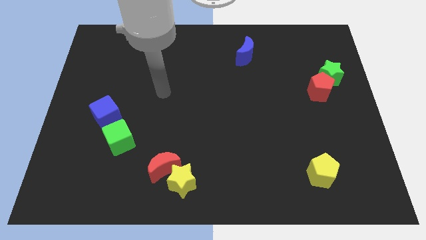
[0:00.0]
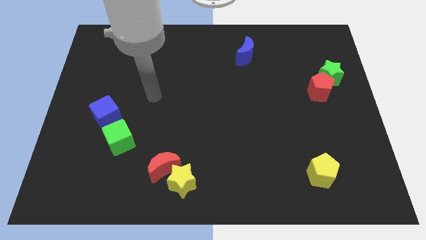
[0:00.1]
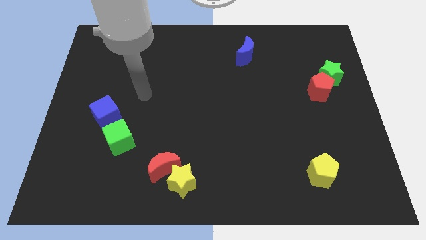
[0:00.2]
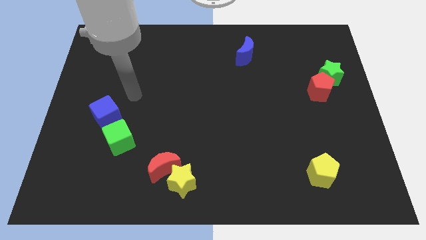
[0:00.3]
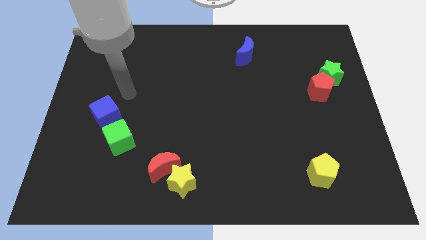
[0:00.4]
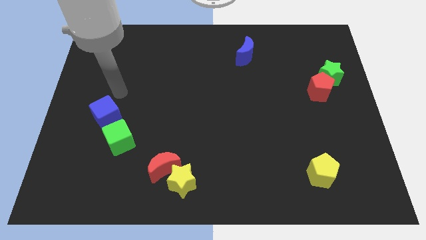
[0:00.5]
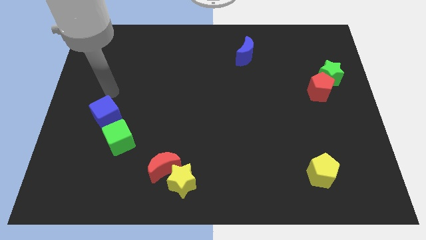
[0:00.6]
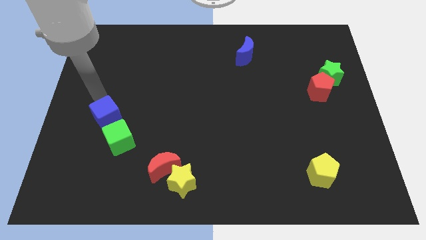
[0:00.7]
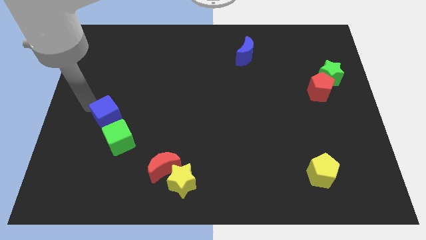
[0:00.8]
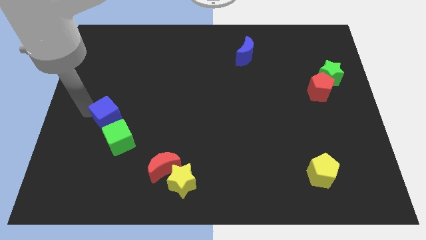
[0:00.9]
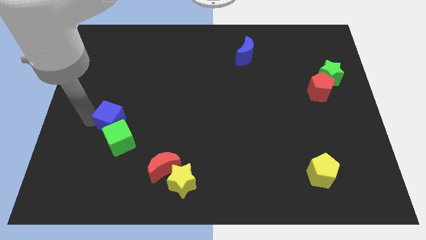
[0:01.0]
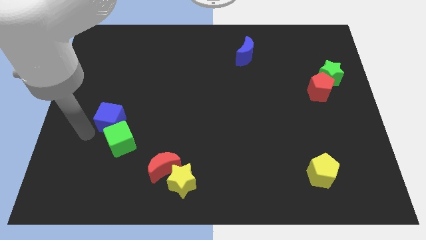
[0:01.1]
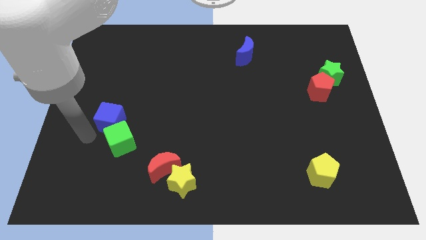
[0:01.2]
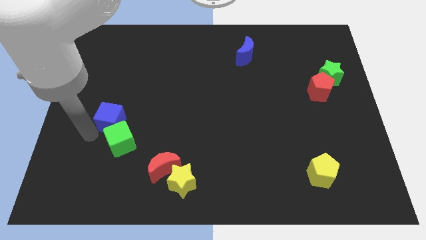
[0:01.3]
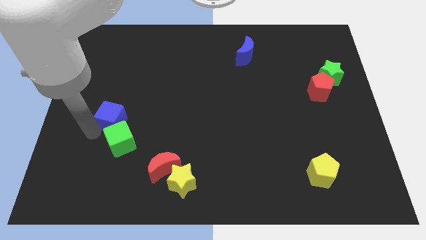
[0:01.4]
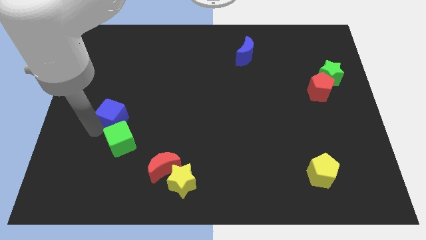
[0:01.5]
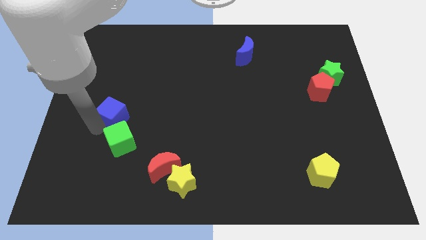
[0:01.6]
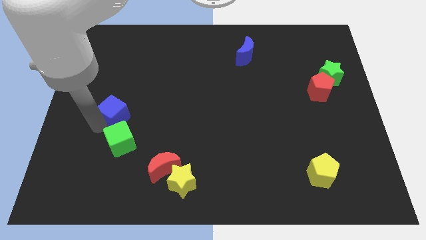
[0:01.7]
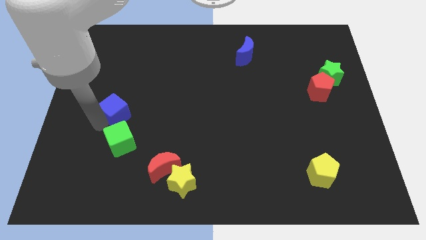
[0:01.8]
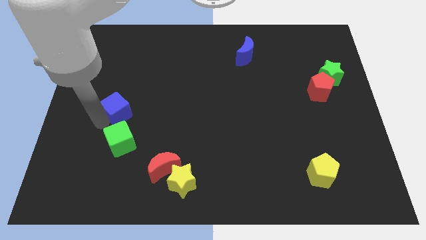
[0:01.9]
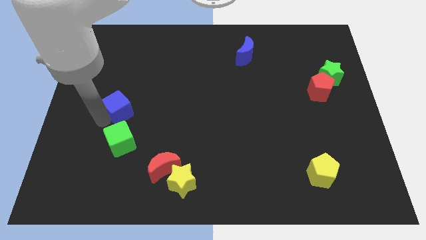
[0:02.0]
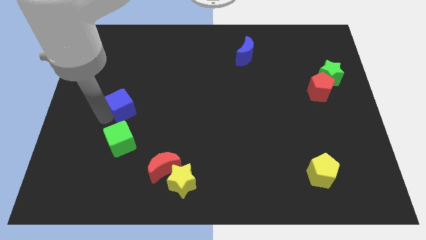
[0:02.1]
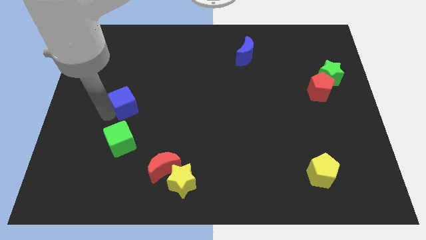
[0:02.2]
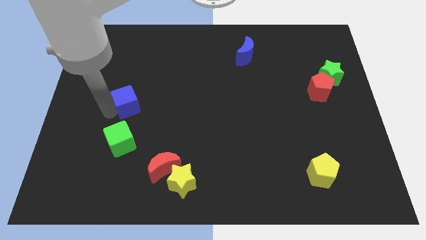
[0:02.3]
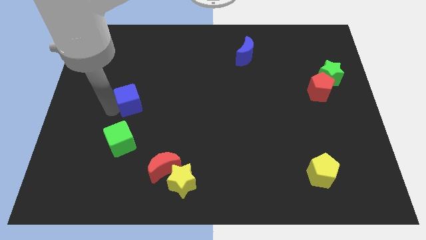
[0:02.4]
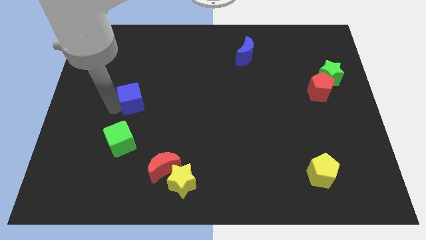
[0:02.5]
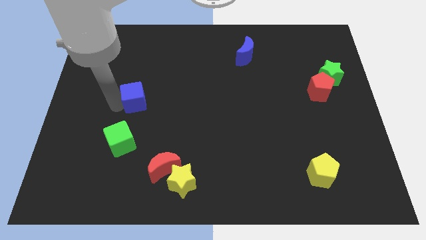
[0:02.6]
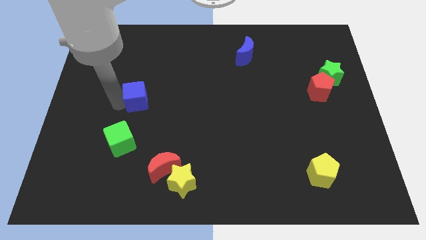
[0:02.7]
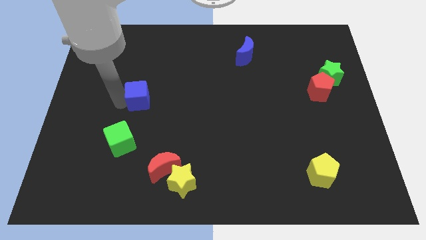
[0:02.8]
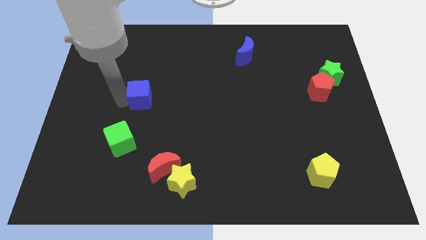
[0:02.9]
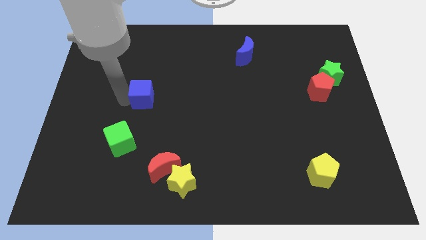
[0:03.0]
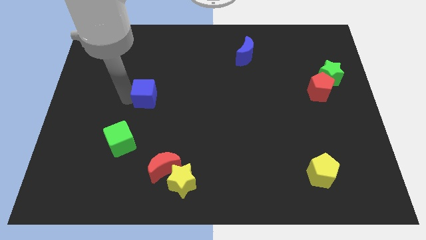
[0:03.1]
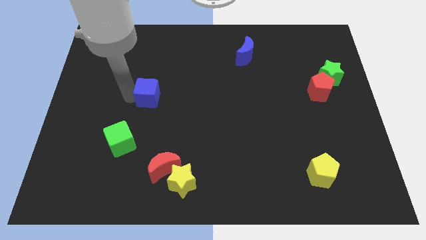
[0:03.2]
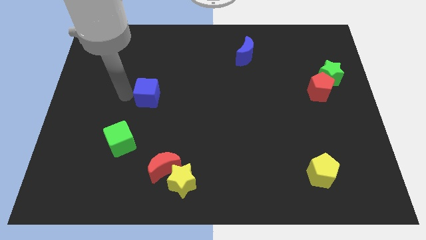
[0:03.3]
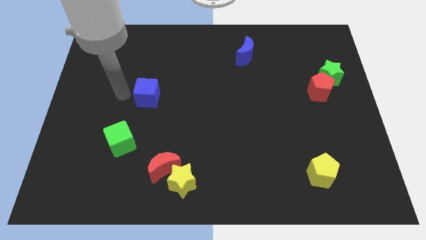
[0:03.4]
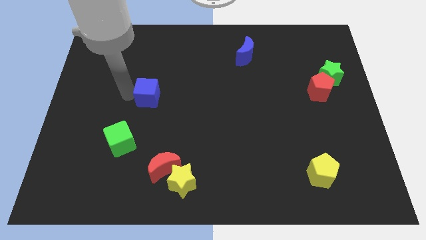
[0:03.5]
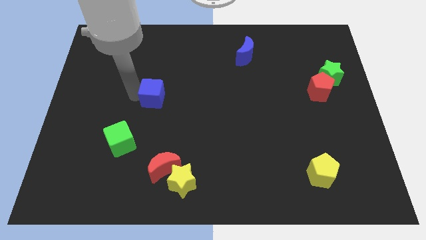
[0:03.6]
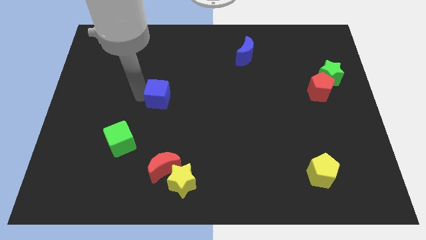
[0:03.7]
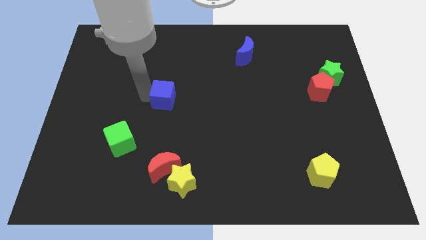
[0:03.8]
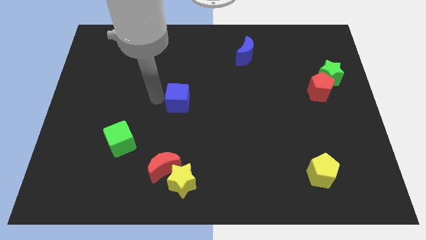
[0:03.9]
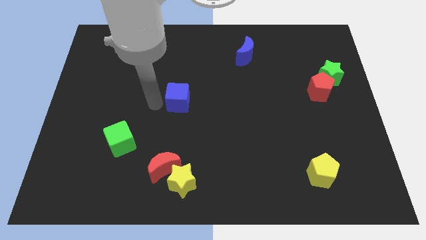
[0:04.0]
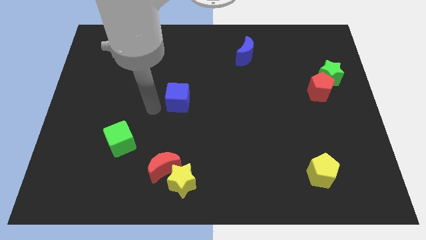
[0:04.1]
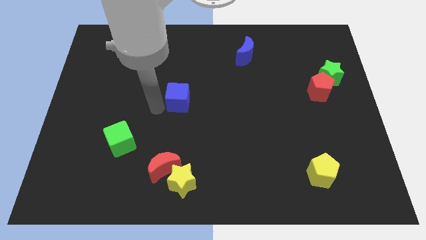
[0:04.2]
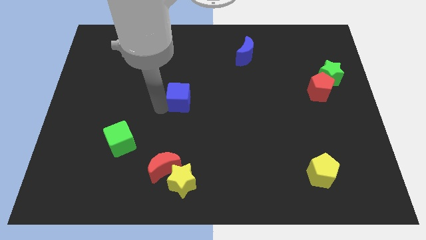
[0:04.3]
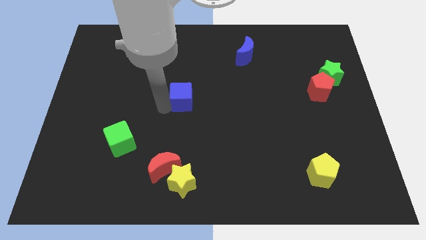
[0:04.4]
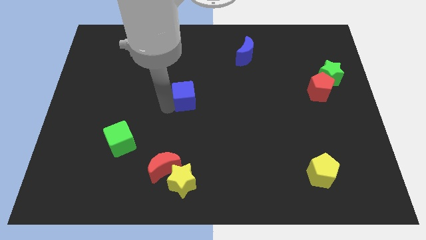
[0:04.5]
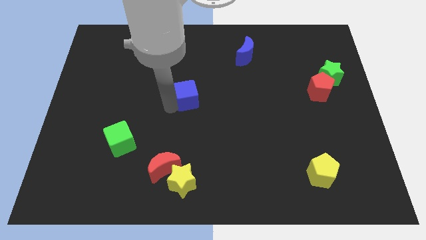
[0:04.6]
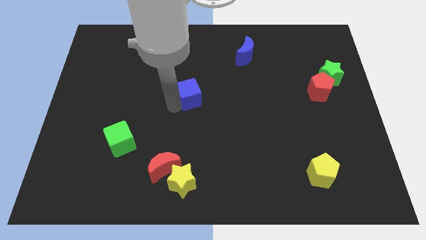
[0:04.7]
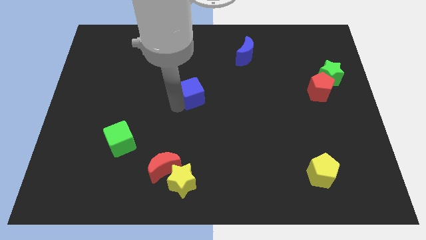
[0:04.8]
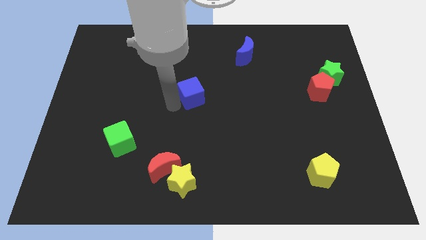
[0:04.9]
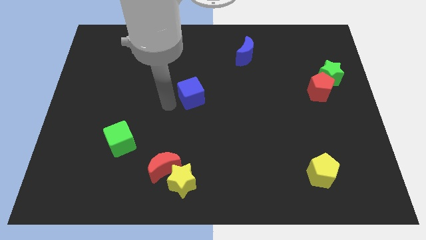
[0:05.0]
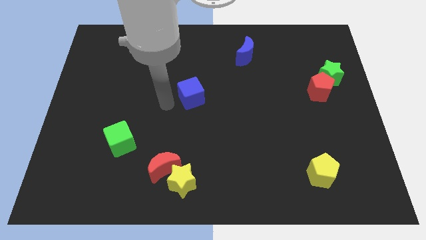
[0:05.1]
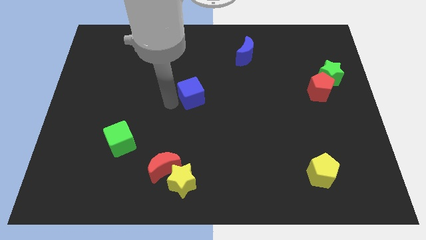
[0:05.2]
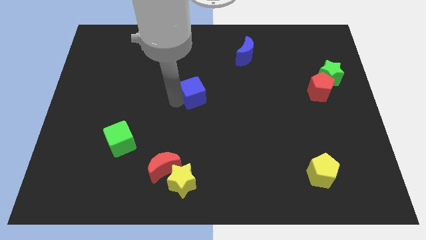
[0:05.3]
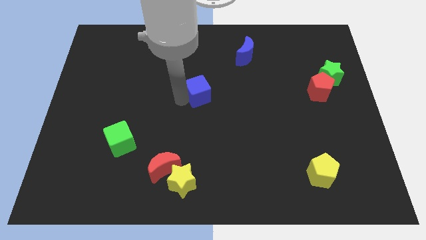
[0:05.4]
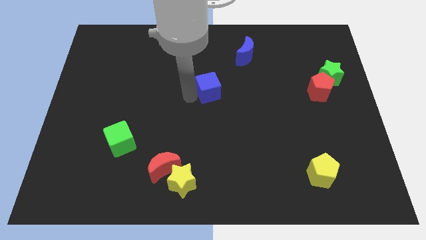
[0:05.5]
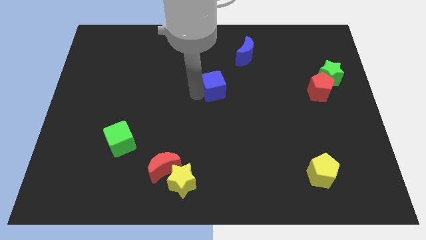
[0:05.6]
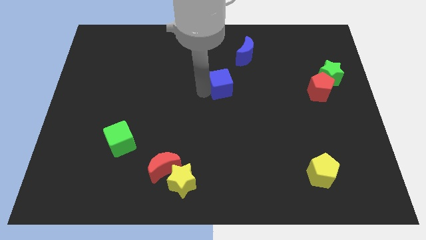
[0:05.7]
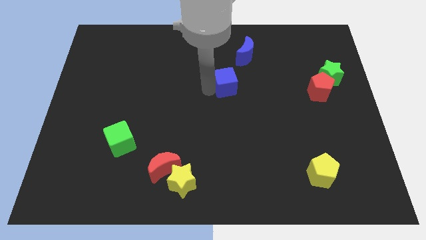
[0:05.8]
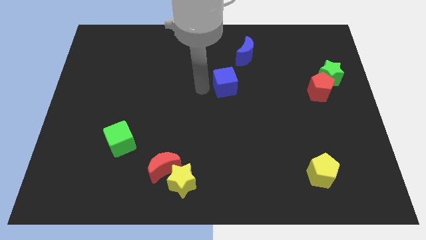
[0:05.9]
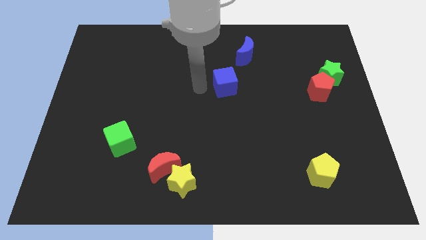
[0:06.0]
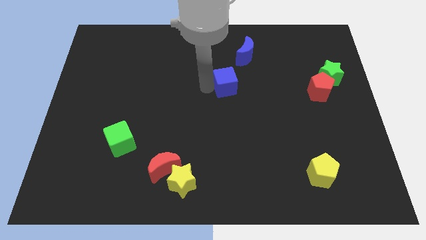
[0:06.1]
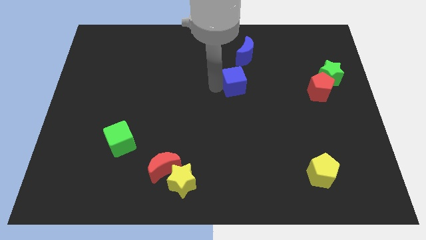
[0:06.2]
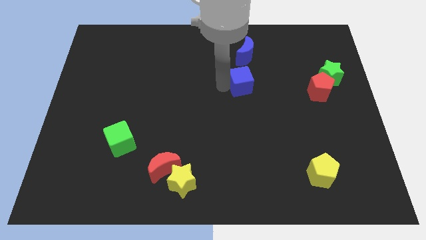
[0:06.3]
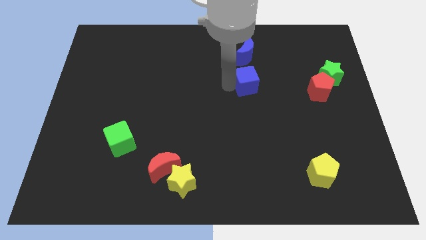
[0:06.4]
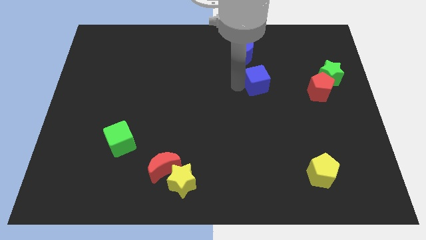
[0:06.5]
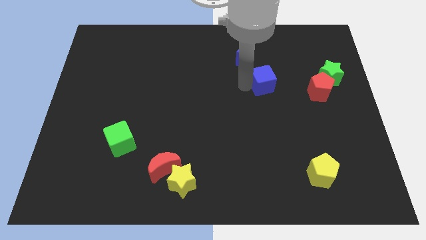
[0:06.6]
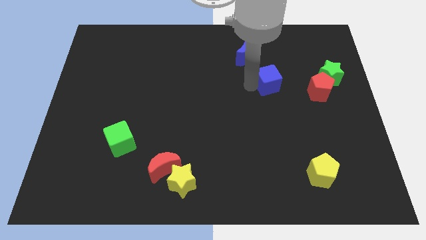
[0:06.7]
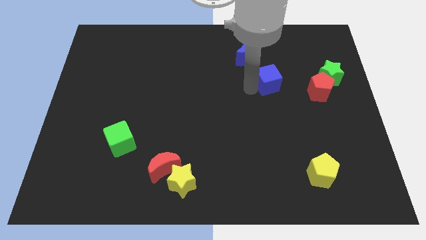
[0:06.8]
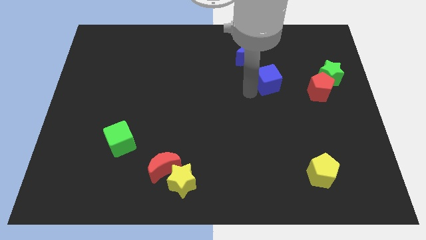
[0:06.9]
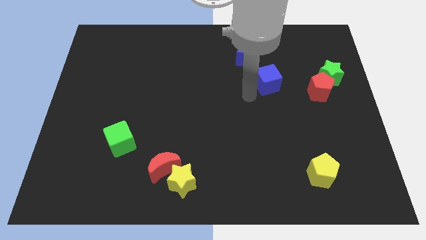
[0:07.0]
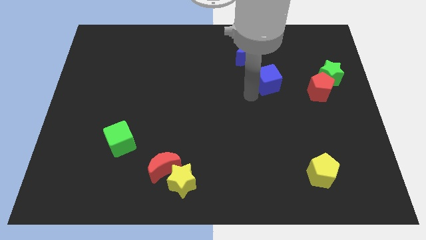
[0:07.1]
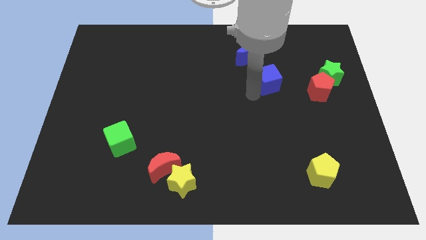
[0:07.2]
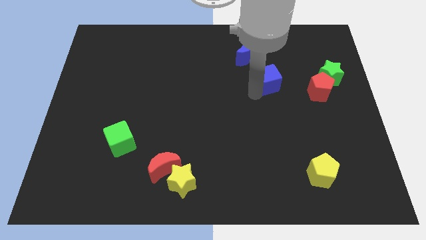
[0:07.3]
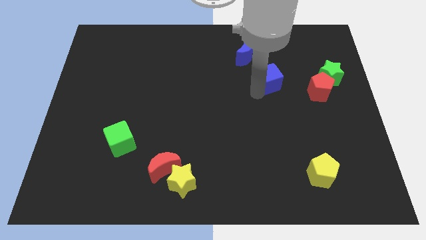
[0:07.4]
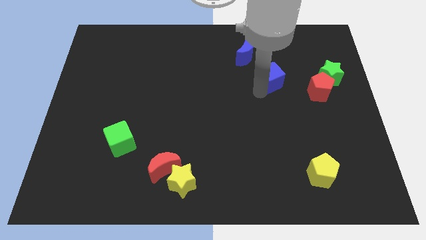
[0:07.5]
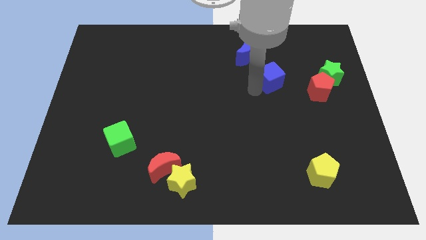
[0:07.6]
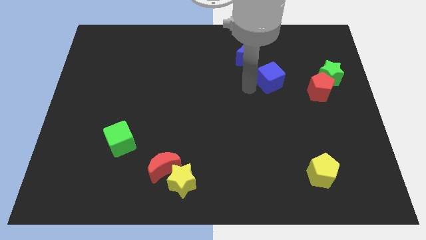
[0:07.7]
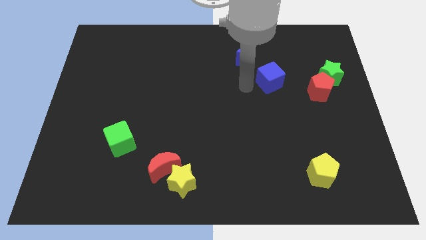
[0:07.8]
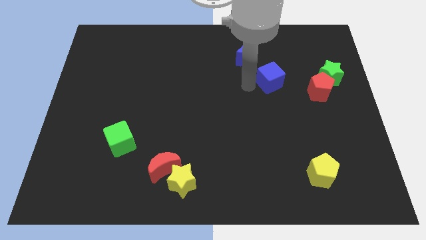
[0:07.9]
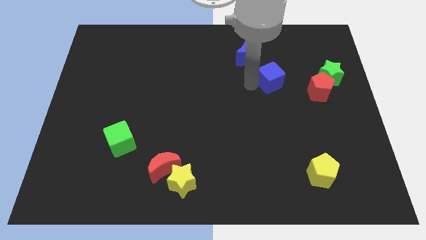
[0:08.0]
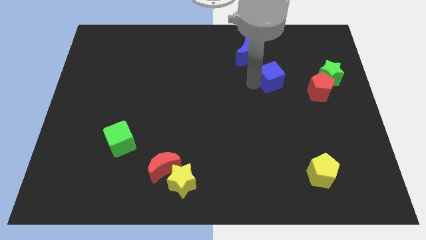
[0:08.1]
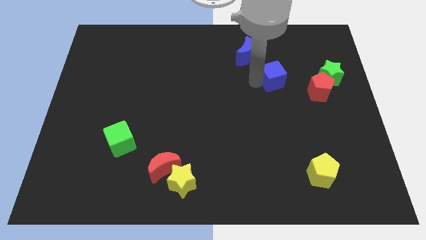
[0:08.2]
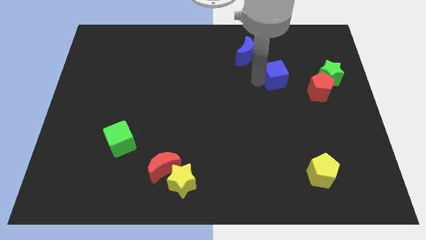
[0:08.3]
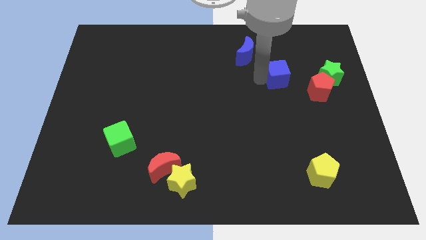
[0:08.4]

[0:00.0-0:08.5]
slide the blue cube diagonally up and to the left of the red pentagon
